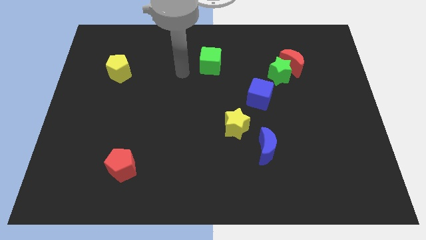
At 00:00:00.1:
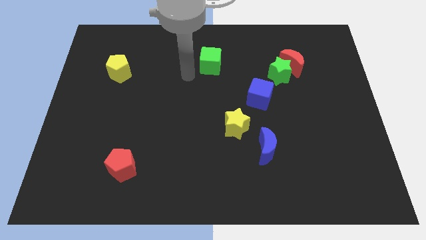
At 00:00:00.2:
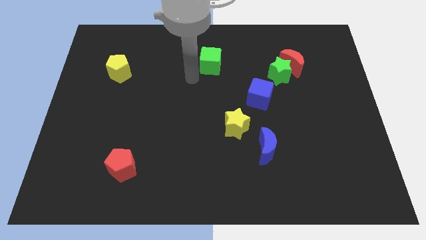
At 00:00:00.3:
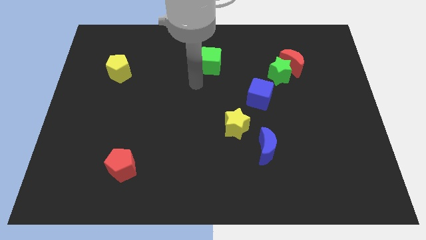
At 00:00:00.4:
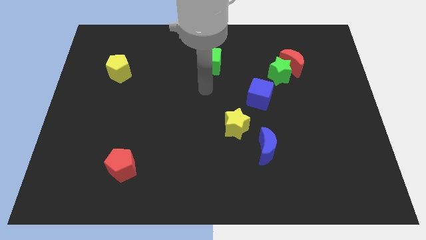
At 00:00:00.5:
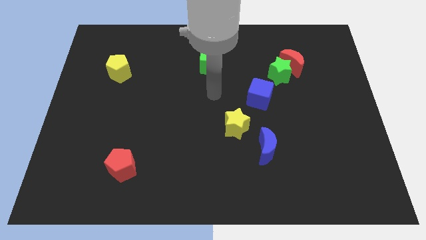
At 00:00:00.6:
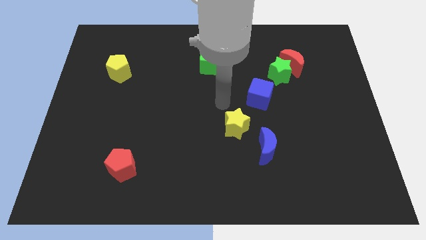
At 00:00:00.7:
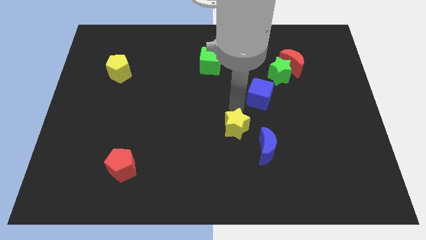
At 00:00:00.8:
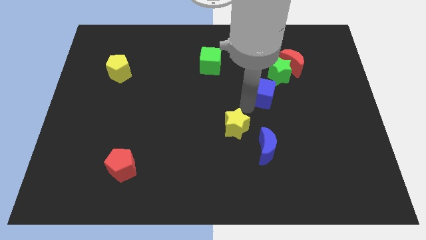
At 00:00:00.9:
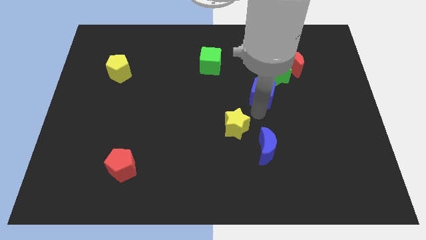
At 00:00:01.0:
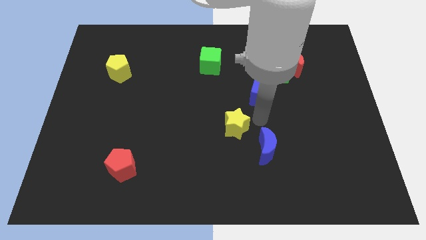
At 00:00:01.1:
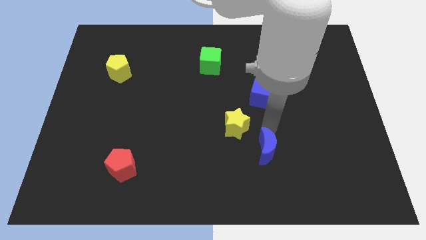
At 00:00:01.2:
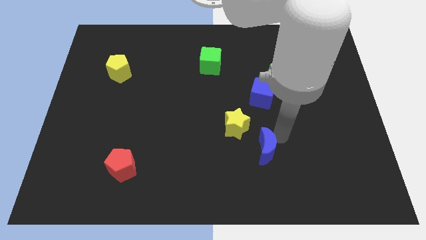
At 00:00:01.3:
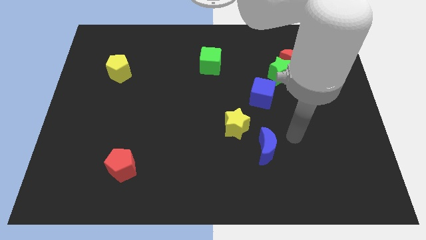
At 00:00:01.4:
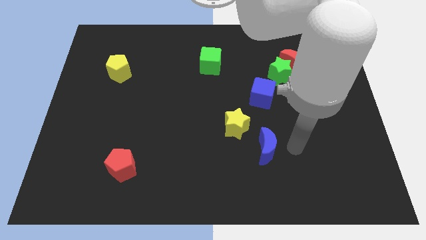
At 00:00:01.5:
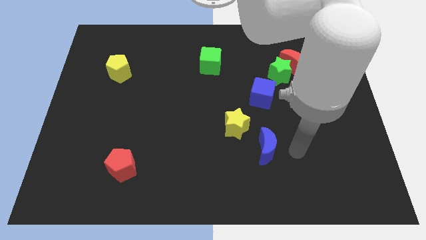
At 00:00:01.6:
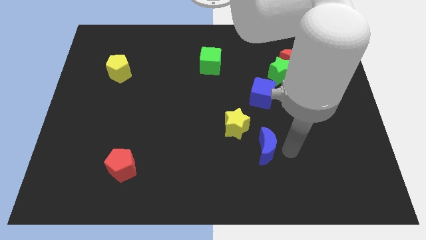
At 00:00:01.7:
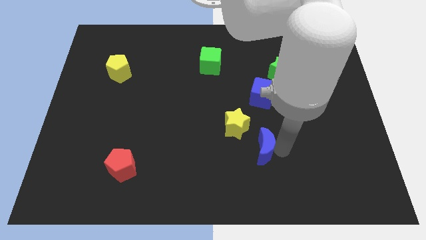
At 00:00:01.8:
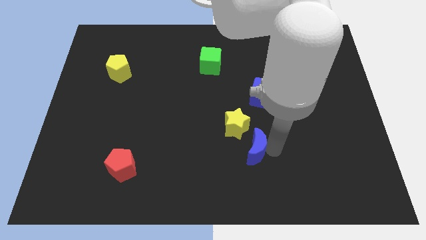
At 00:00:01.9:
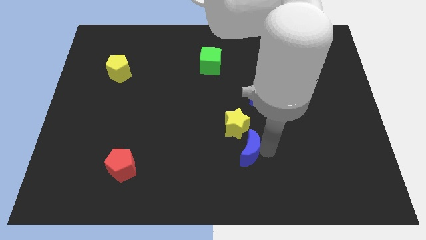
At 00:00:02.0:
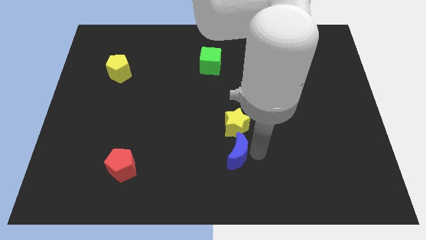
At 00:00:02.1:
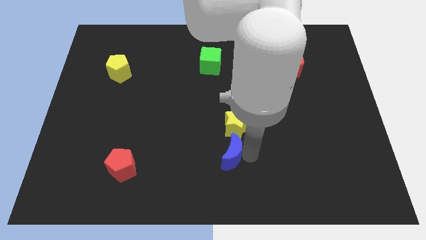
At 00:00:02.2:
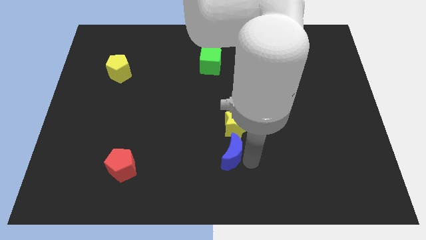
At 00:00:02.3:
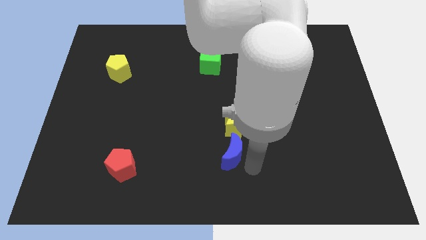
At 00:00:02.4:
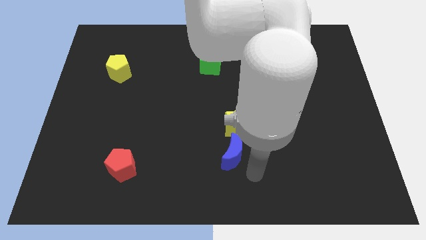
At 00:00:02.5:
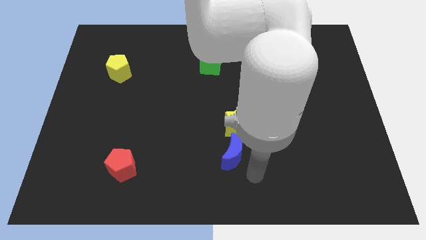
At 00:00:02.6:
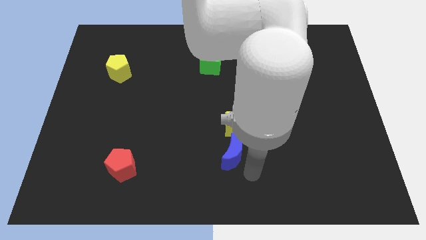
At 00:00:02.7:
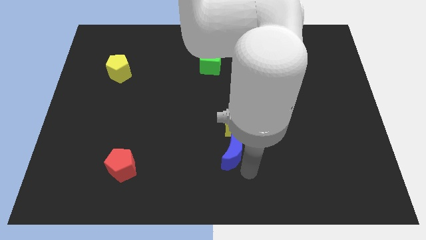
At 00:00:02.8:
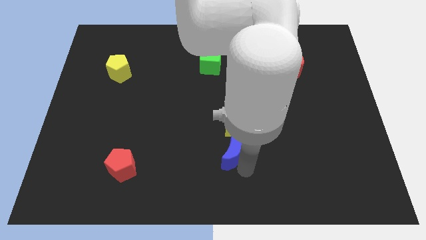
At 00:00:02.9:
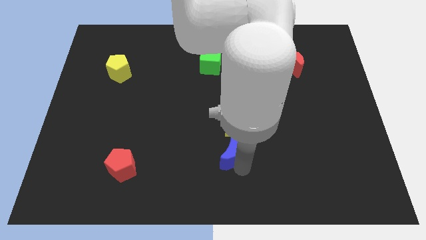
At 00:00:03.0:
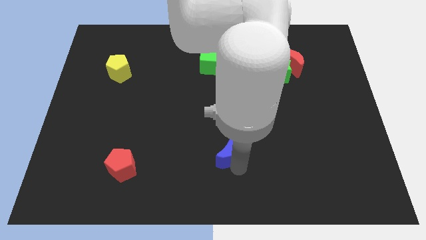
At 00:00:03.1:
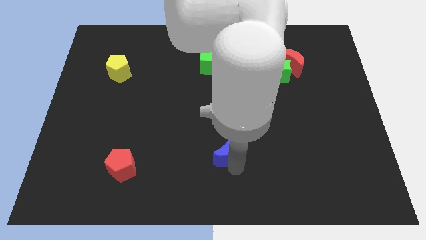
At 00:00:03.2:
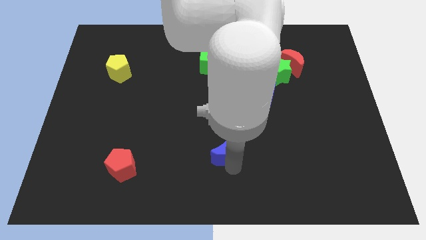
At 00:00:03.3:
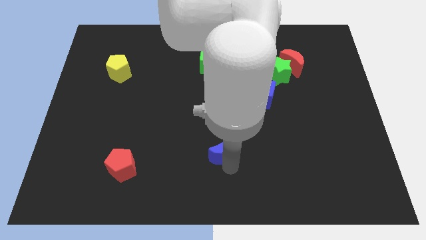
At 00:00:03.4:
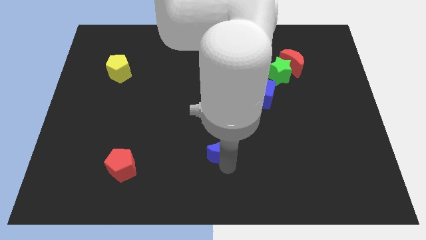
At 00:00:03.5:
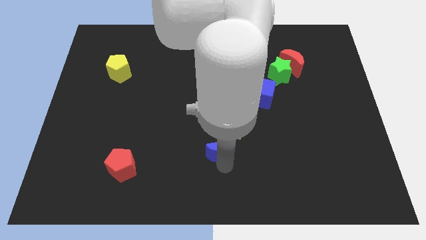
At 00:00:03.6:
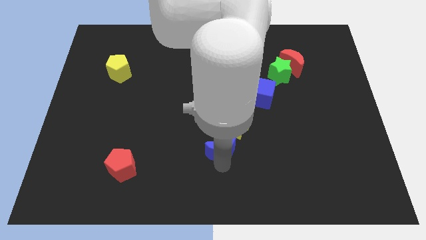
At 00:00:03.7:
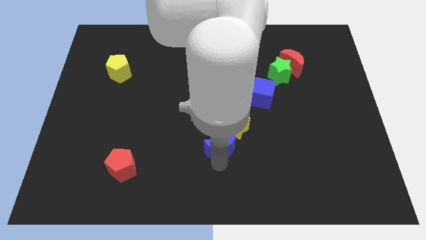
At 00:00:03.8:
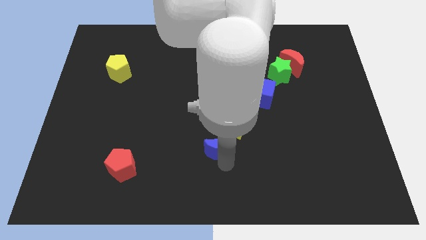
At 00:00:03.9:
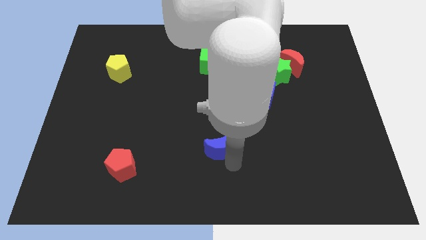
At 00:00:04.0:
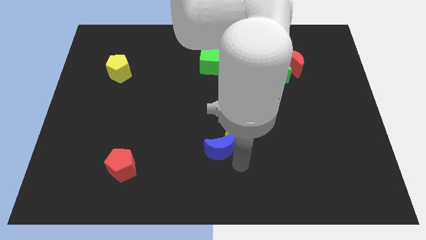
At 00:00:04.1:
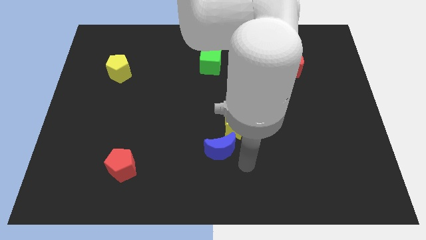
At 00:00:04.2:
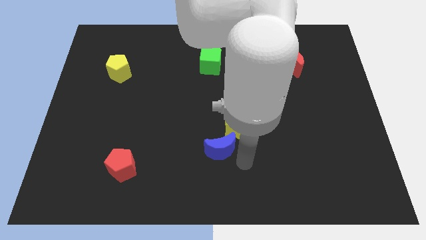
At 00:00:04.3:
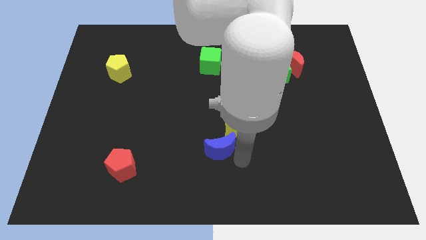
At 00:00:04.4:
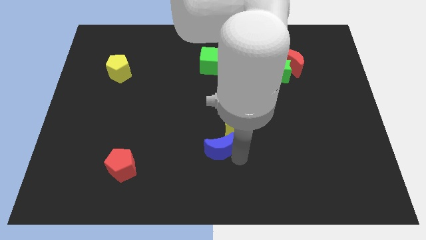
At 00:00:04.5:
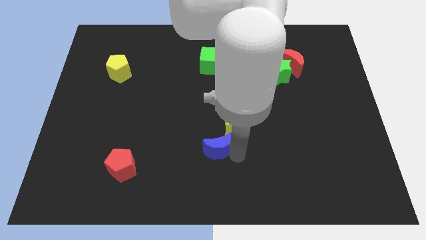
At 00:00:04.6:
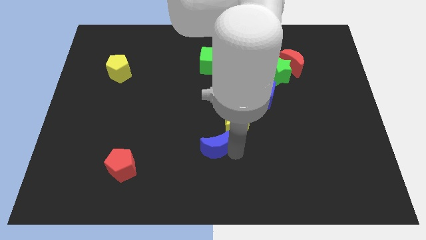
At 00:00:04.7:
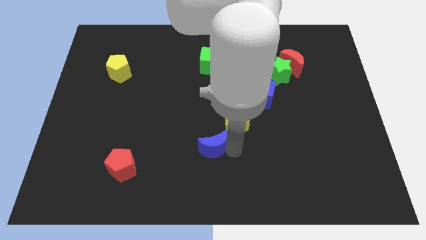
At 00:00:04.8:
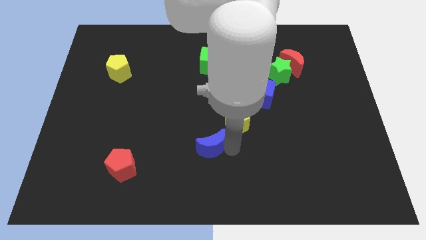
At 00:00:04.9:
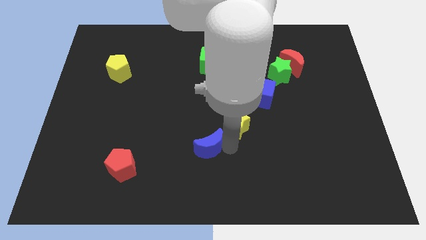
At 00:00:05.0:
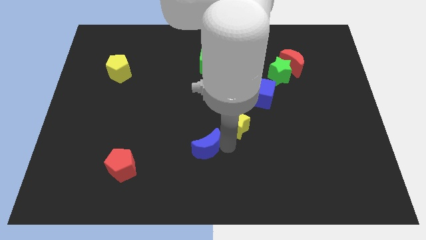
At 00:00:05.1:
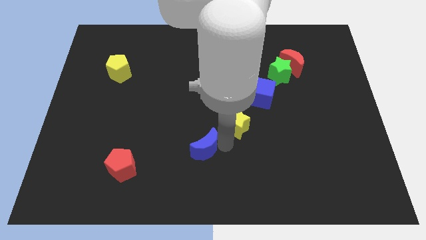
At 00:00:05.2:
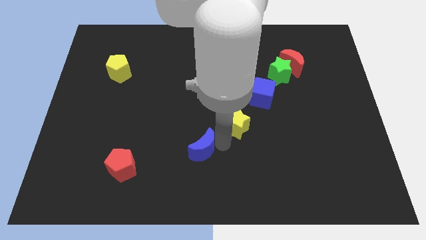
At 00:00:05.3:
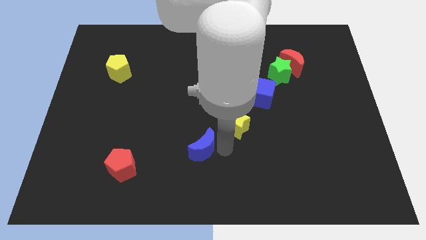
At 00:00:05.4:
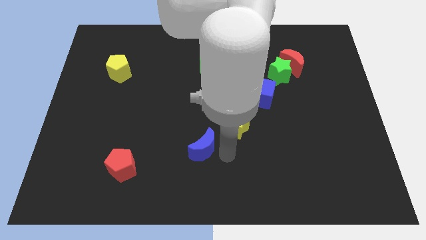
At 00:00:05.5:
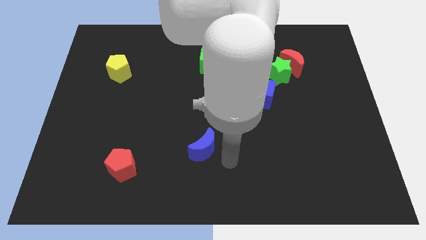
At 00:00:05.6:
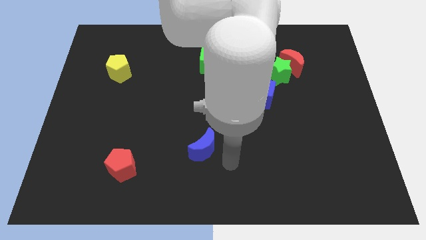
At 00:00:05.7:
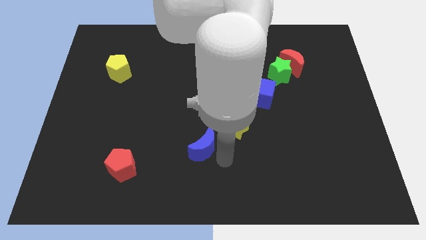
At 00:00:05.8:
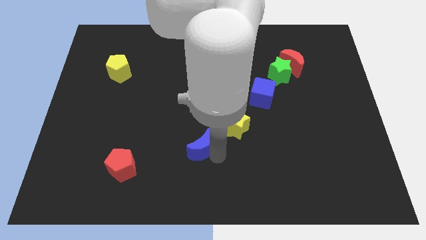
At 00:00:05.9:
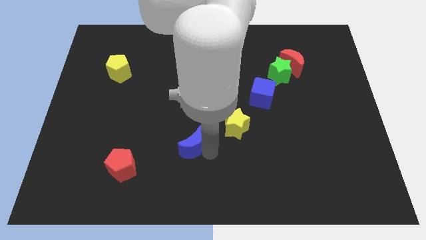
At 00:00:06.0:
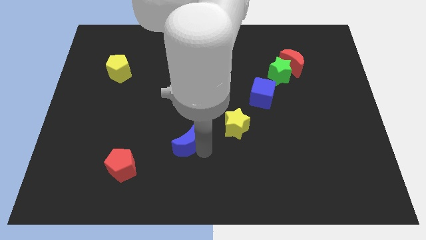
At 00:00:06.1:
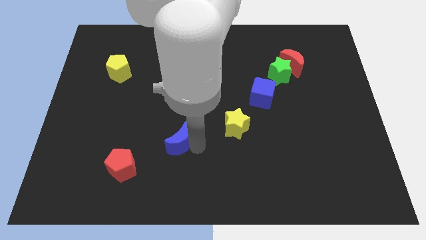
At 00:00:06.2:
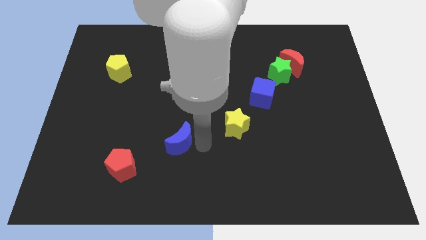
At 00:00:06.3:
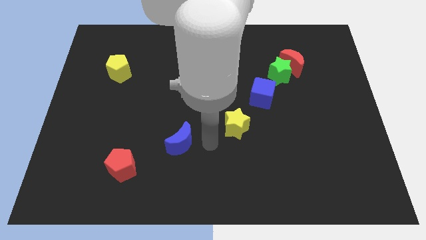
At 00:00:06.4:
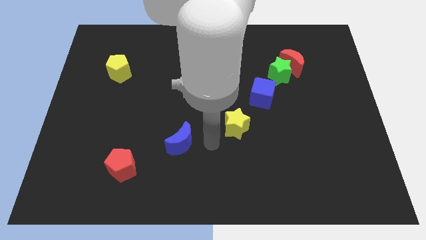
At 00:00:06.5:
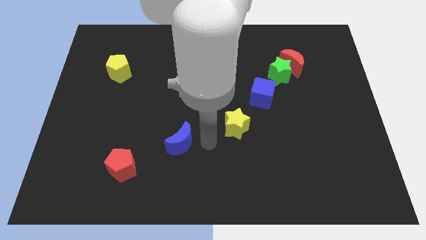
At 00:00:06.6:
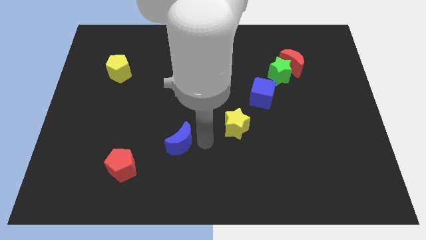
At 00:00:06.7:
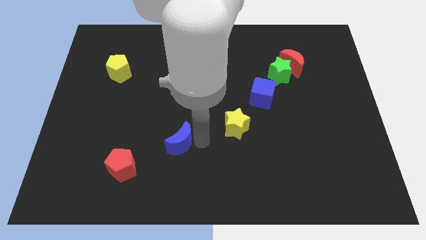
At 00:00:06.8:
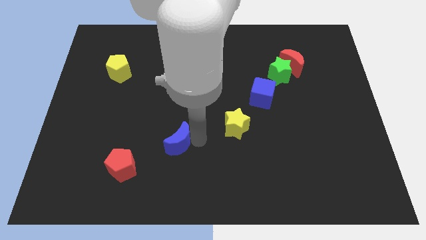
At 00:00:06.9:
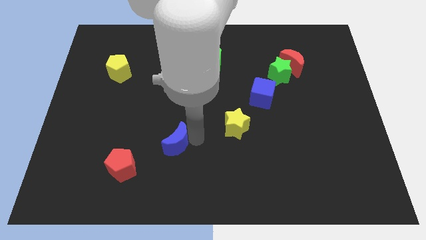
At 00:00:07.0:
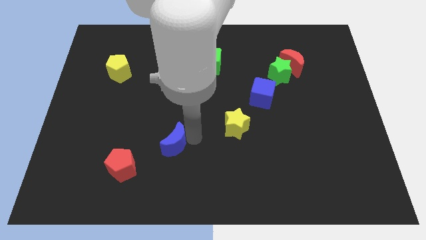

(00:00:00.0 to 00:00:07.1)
move the blue moon to the left

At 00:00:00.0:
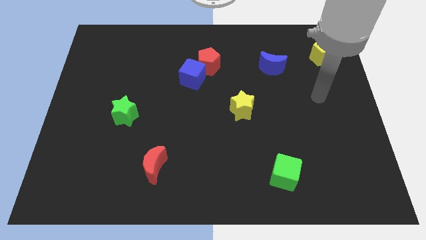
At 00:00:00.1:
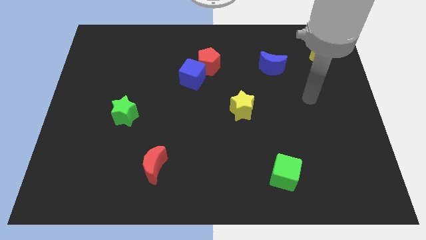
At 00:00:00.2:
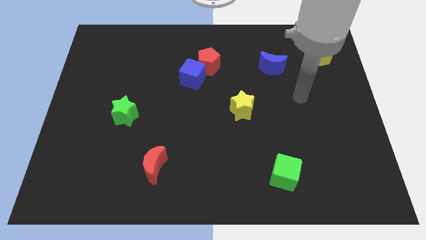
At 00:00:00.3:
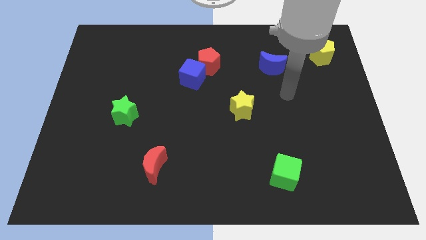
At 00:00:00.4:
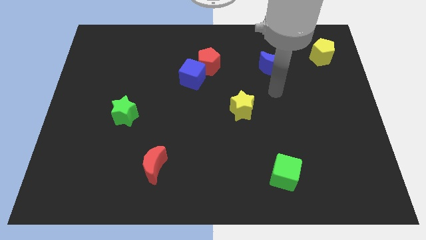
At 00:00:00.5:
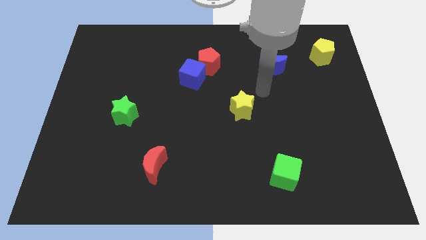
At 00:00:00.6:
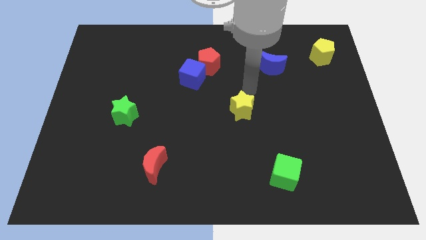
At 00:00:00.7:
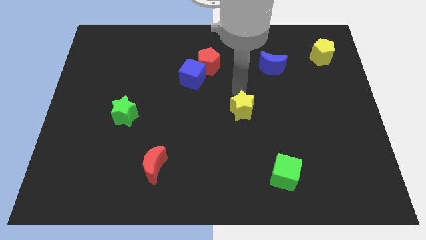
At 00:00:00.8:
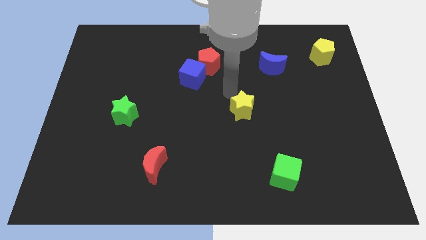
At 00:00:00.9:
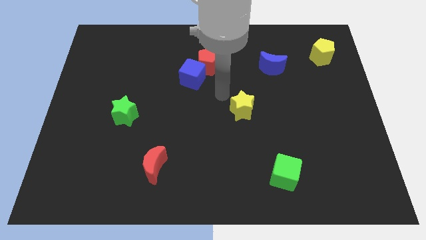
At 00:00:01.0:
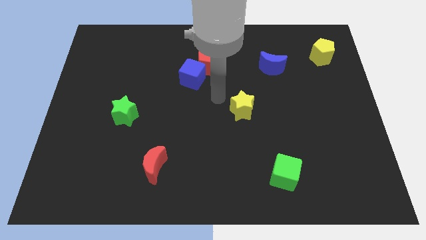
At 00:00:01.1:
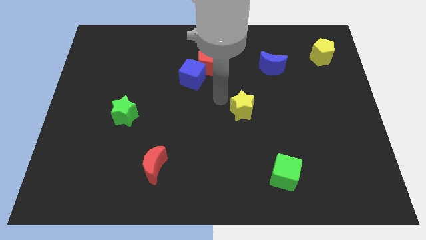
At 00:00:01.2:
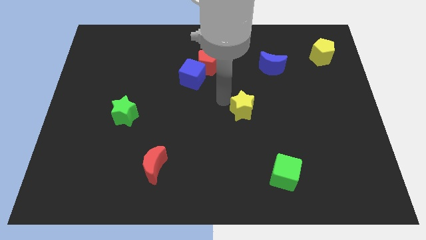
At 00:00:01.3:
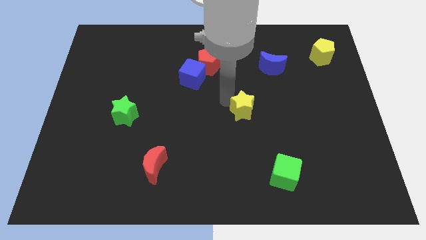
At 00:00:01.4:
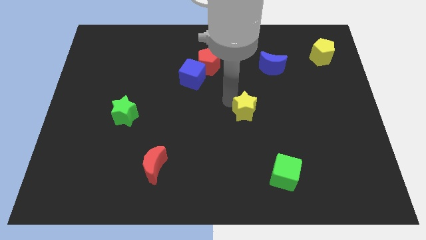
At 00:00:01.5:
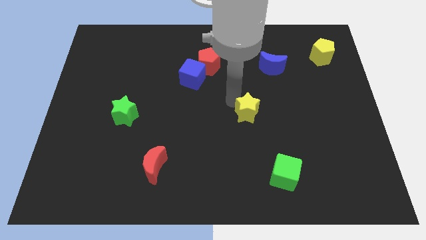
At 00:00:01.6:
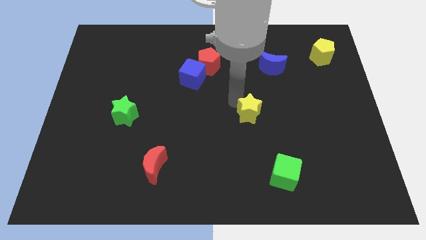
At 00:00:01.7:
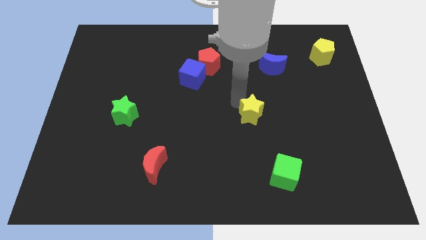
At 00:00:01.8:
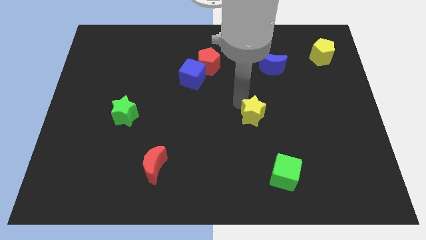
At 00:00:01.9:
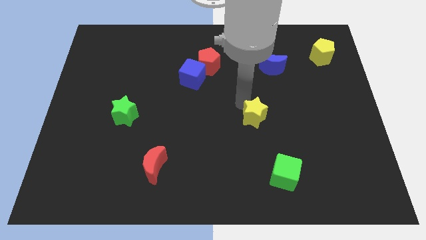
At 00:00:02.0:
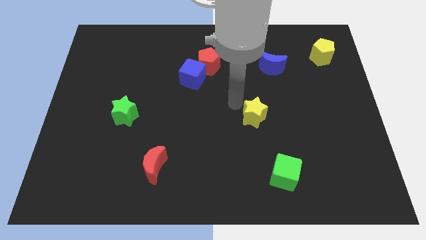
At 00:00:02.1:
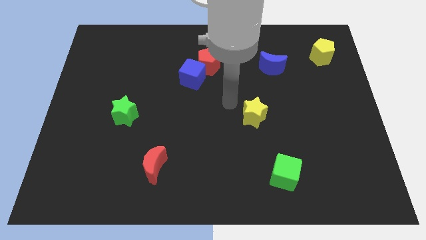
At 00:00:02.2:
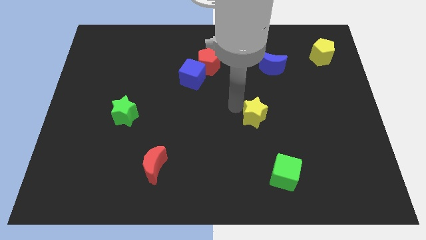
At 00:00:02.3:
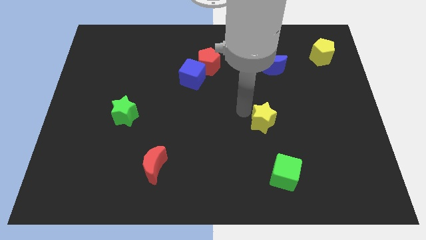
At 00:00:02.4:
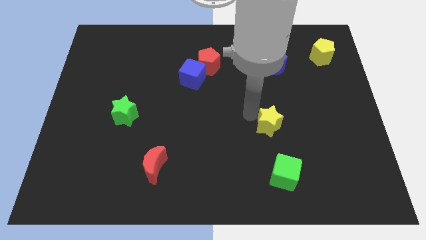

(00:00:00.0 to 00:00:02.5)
move the yellow star down and to the right slightly
